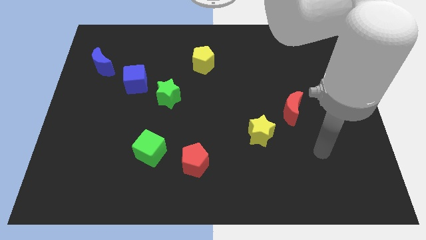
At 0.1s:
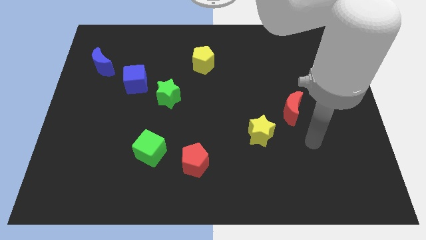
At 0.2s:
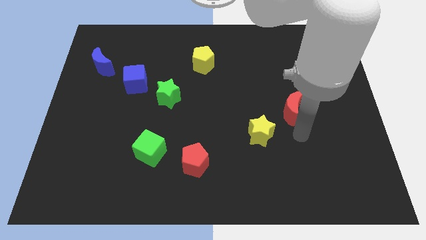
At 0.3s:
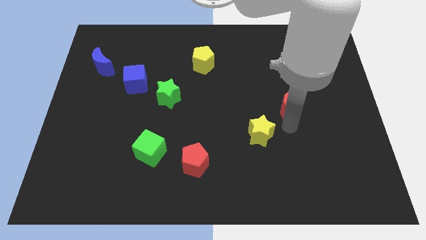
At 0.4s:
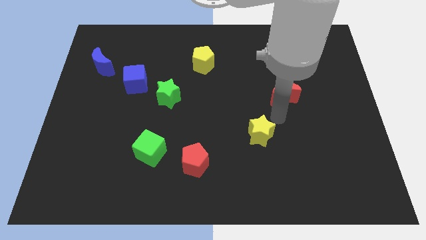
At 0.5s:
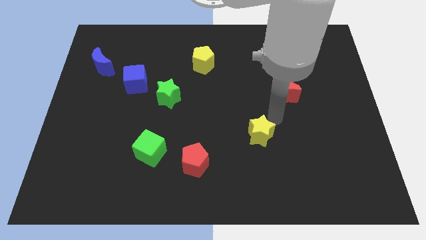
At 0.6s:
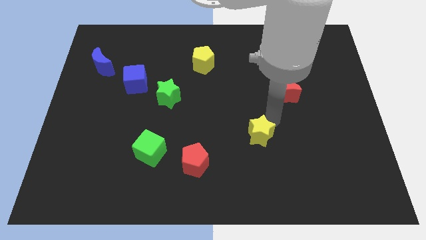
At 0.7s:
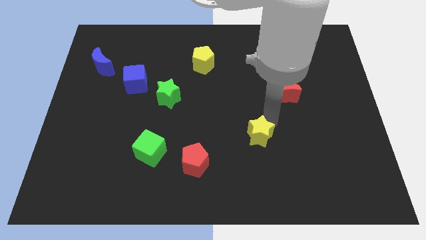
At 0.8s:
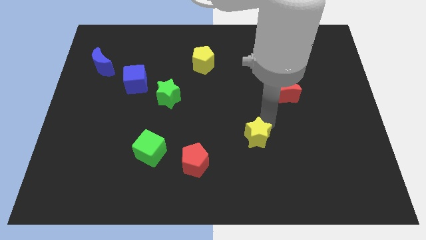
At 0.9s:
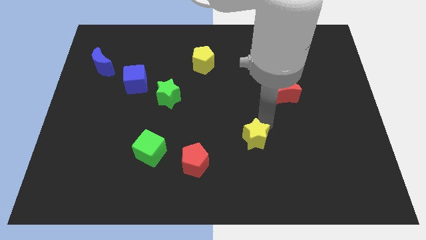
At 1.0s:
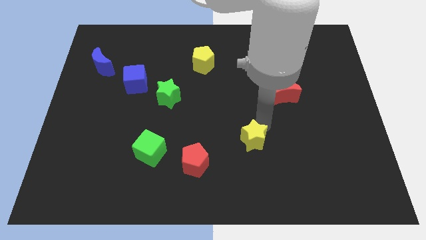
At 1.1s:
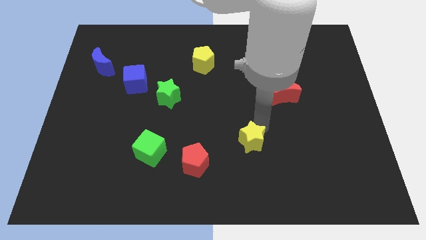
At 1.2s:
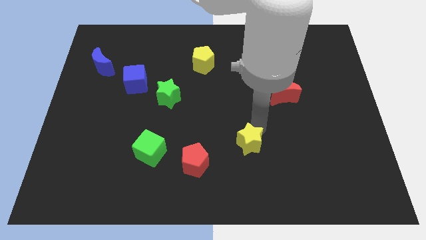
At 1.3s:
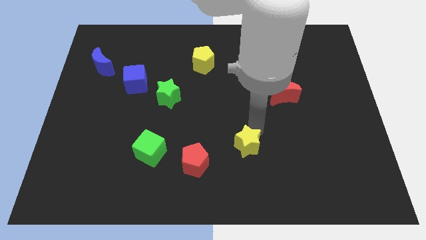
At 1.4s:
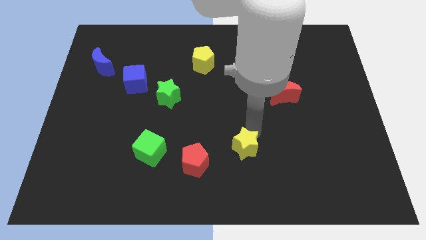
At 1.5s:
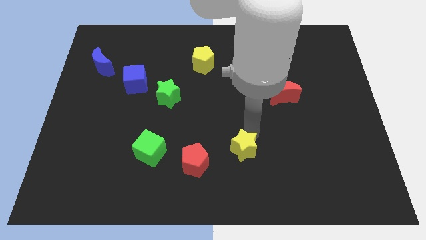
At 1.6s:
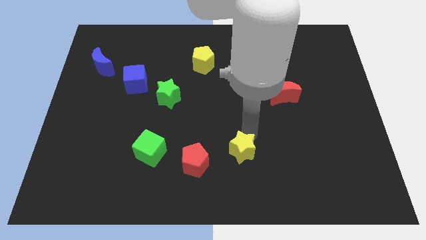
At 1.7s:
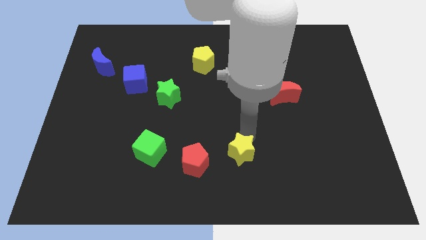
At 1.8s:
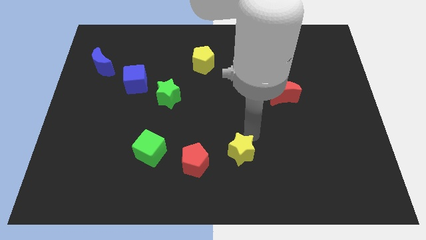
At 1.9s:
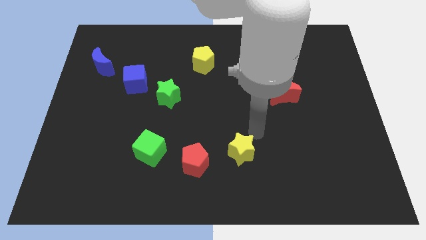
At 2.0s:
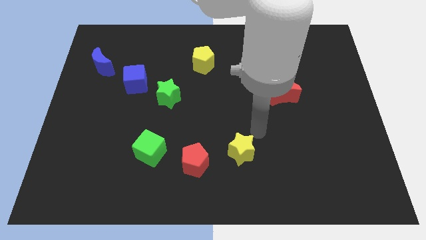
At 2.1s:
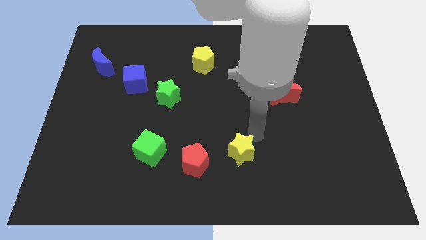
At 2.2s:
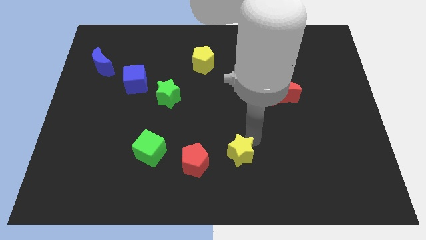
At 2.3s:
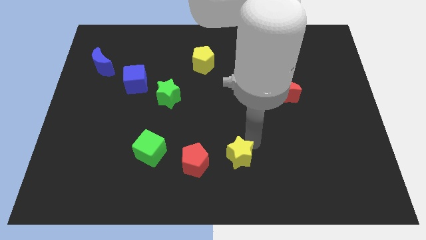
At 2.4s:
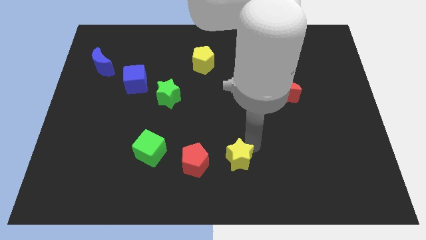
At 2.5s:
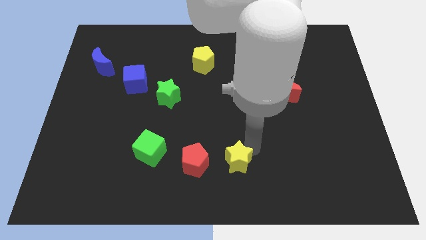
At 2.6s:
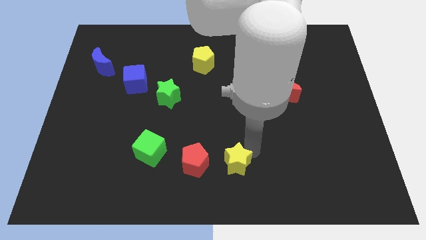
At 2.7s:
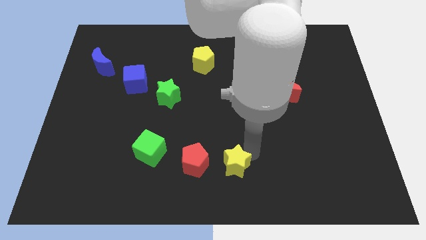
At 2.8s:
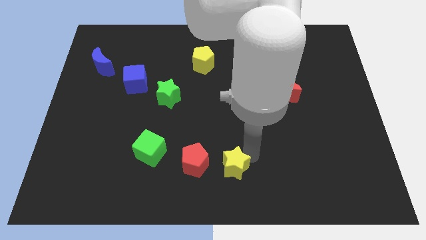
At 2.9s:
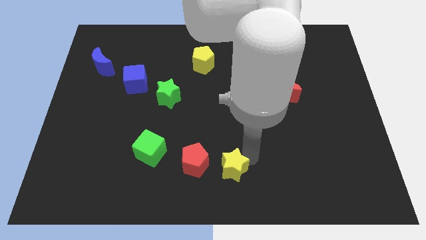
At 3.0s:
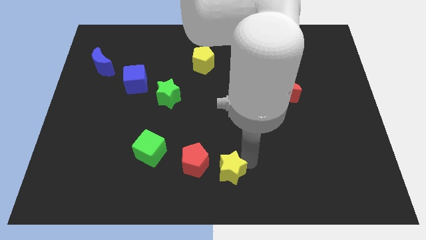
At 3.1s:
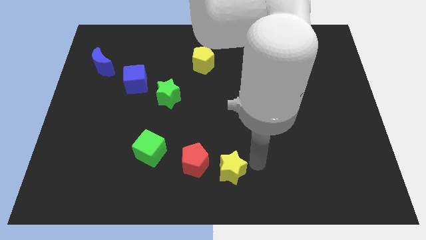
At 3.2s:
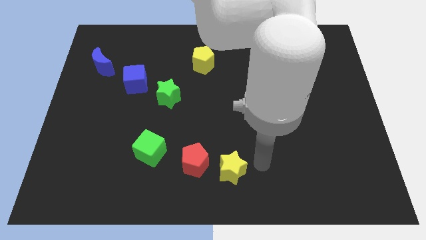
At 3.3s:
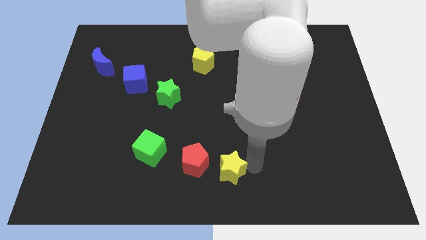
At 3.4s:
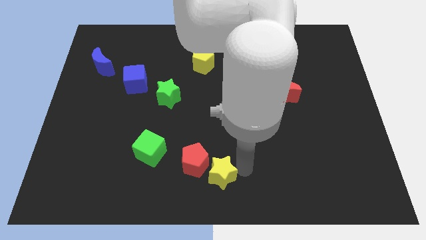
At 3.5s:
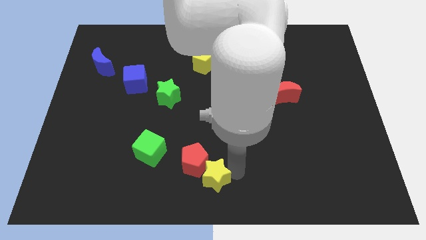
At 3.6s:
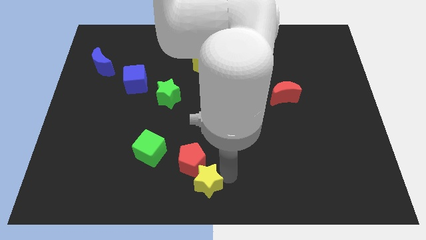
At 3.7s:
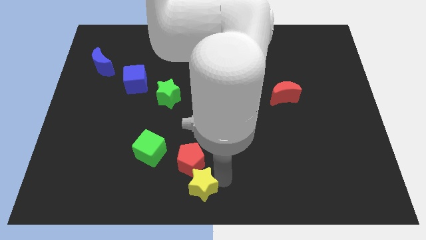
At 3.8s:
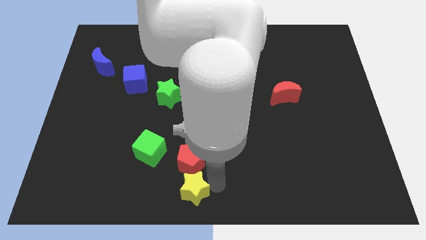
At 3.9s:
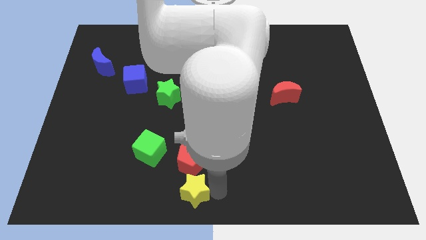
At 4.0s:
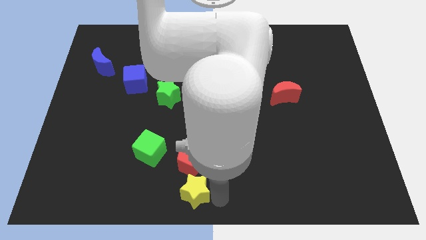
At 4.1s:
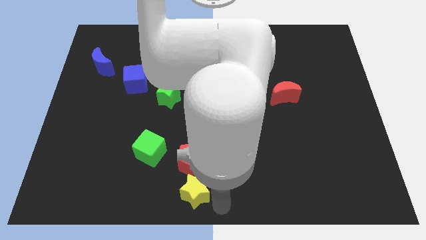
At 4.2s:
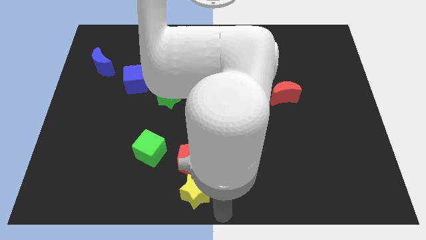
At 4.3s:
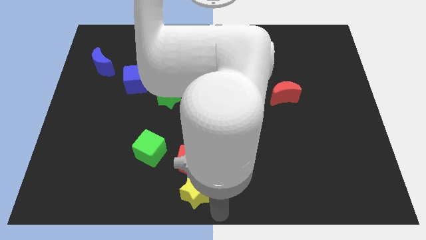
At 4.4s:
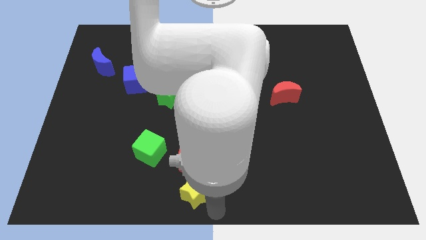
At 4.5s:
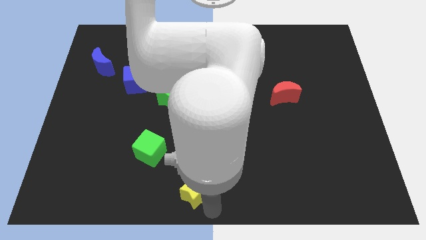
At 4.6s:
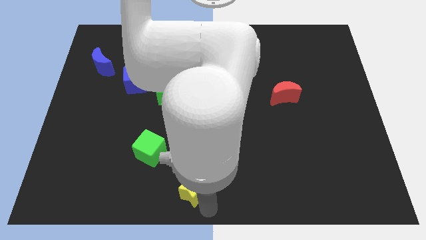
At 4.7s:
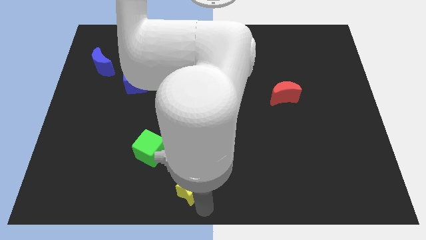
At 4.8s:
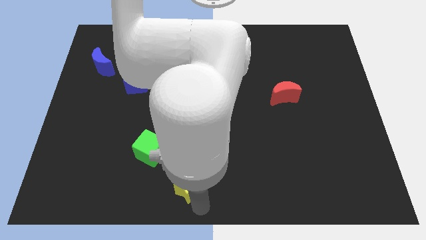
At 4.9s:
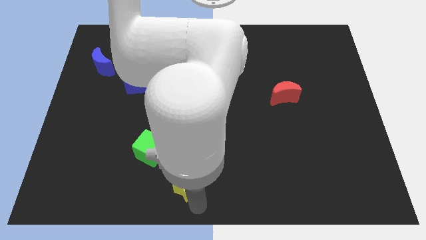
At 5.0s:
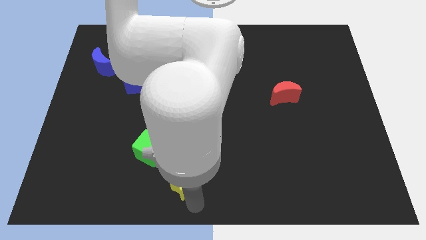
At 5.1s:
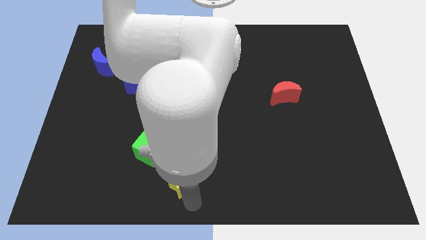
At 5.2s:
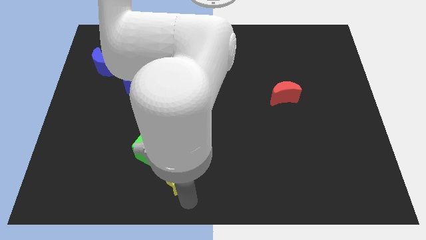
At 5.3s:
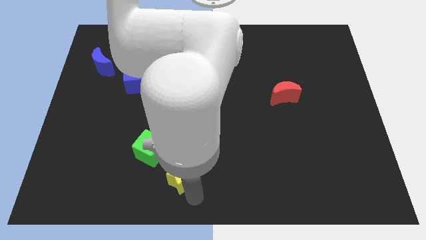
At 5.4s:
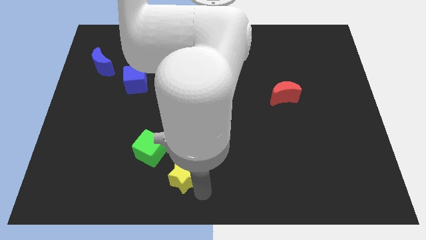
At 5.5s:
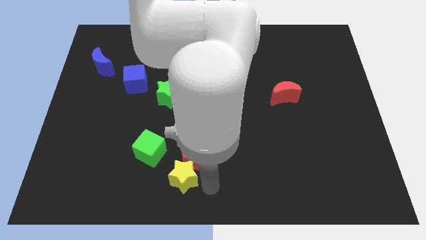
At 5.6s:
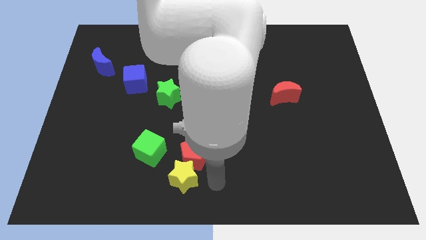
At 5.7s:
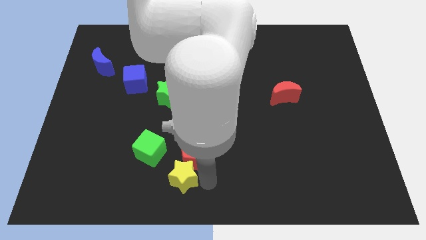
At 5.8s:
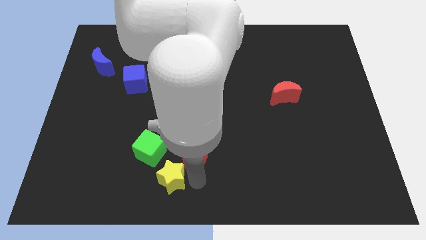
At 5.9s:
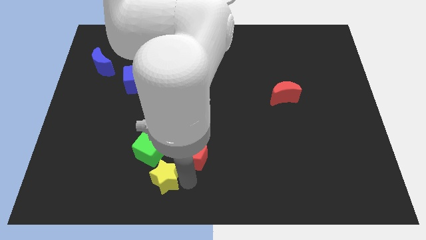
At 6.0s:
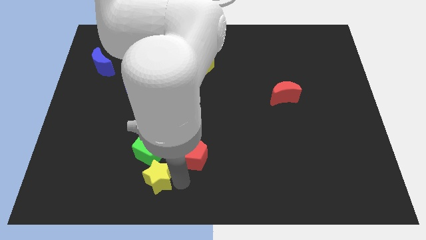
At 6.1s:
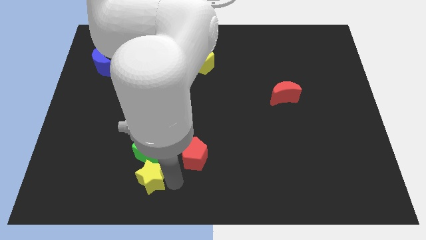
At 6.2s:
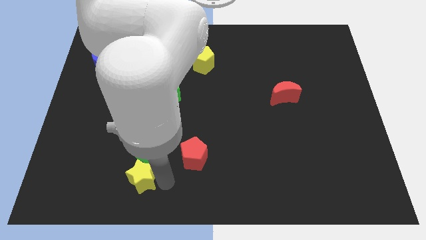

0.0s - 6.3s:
push the yellow star to the bottom left of the green cube

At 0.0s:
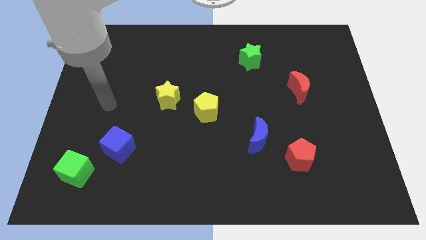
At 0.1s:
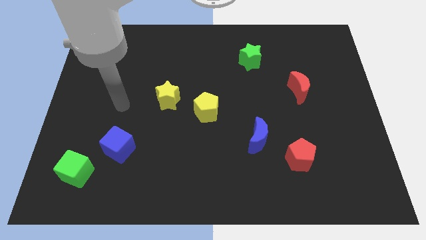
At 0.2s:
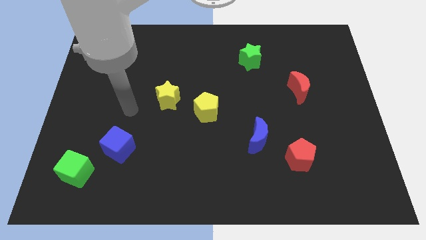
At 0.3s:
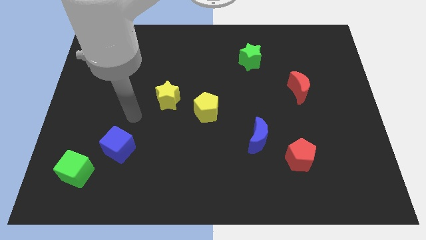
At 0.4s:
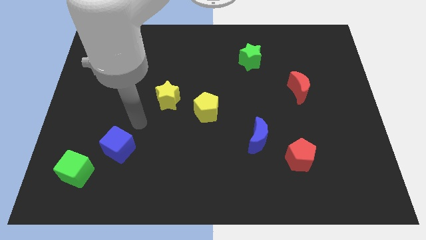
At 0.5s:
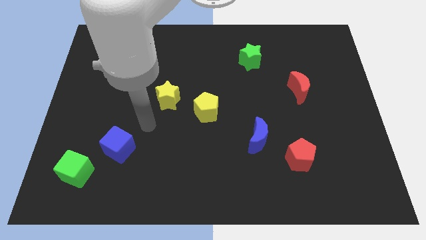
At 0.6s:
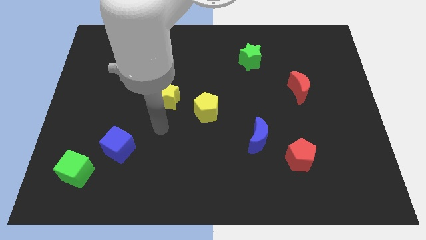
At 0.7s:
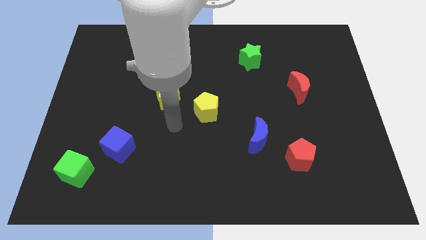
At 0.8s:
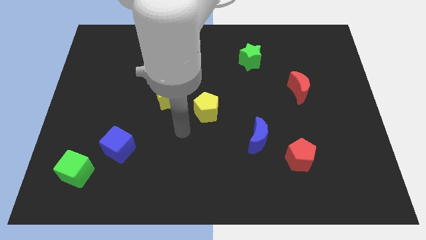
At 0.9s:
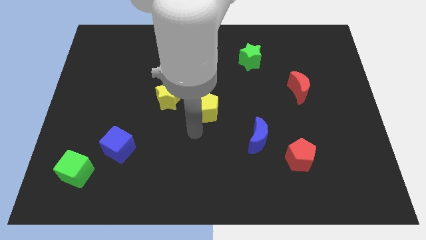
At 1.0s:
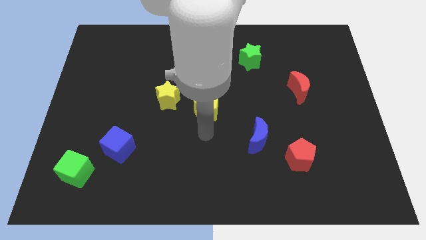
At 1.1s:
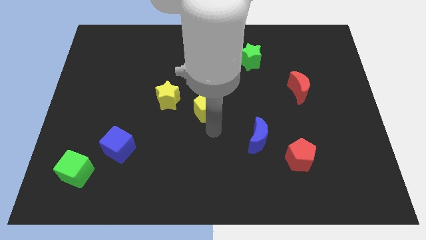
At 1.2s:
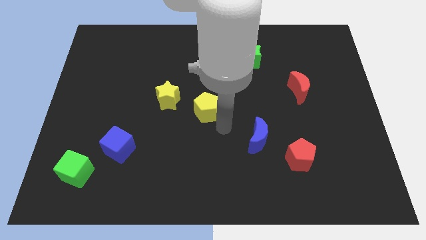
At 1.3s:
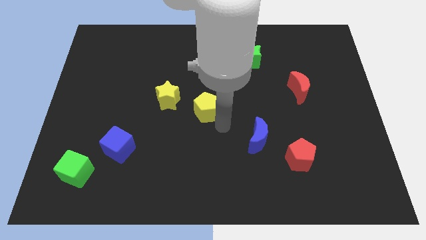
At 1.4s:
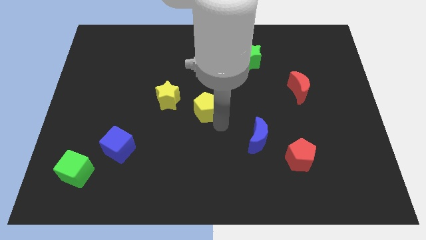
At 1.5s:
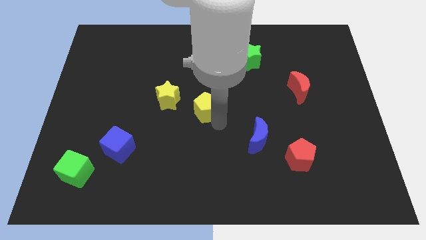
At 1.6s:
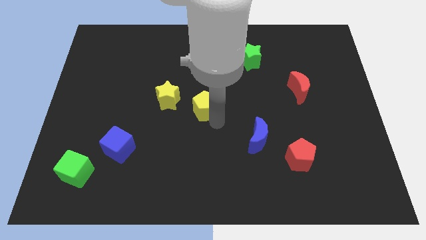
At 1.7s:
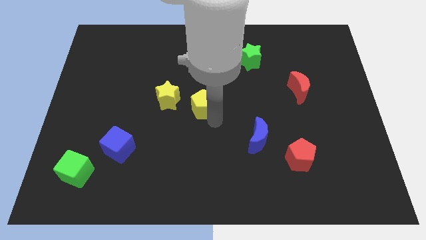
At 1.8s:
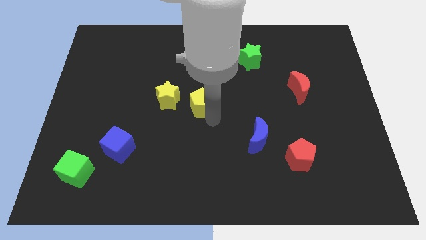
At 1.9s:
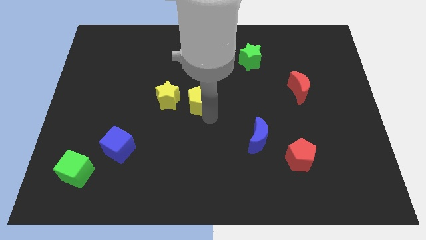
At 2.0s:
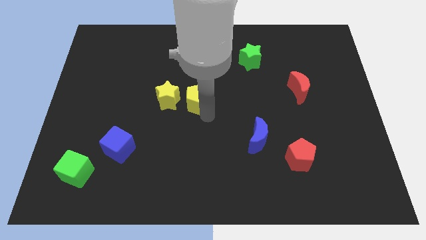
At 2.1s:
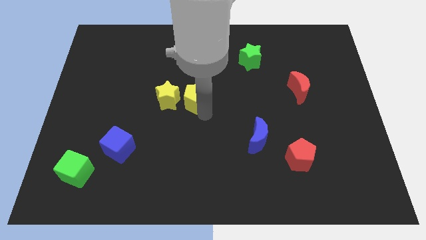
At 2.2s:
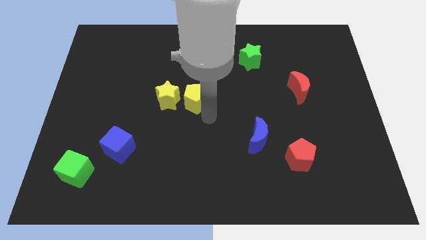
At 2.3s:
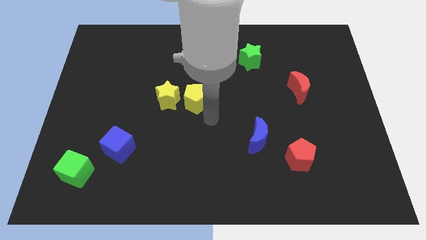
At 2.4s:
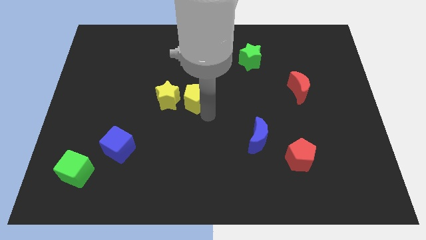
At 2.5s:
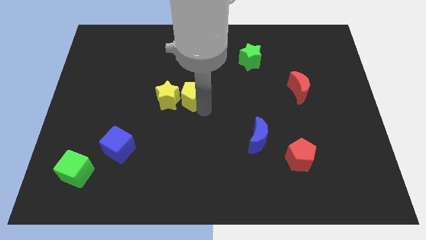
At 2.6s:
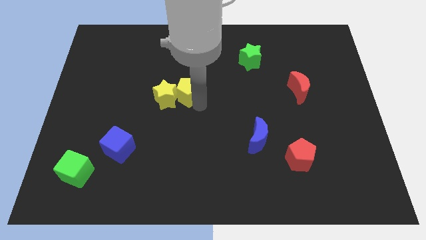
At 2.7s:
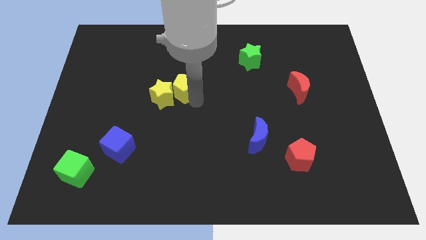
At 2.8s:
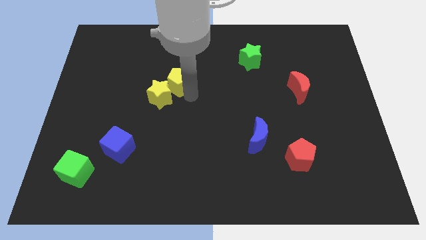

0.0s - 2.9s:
put the yellow pentagon to the top of the yellow star
